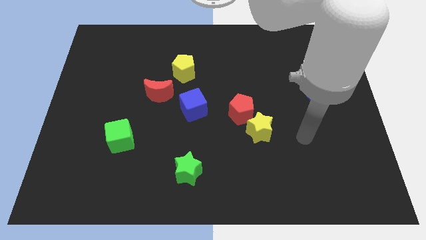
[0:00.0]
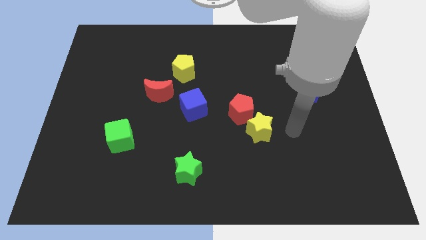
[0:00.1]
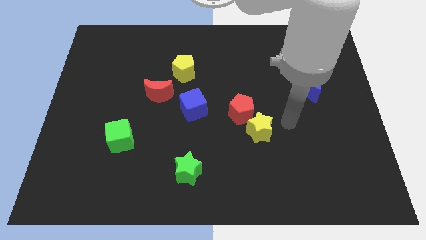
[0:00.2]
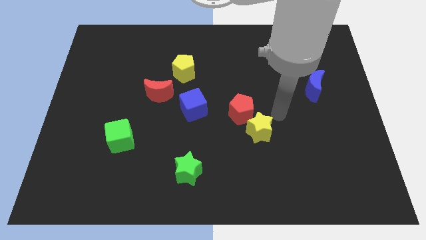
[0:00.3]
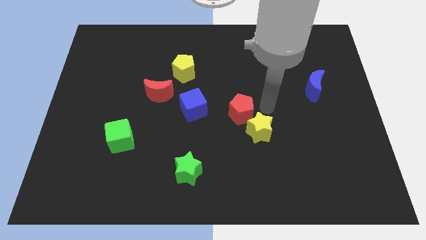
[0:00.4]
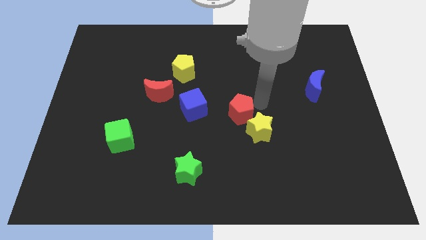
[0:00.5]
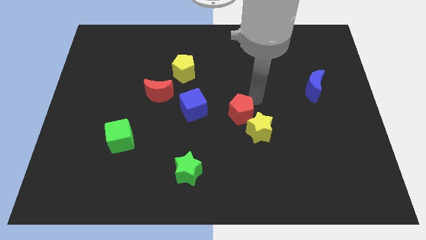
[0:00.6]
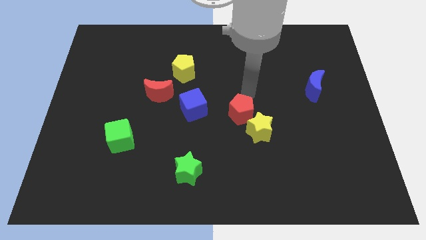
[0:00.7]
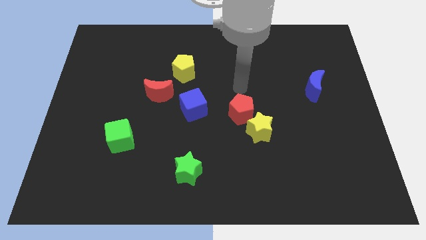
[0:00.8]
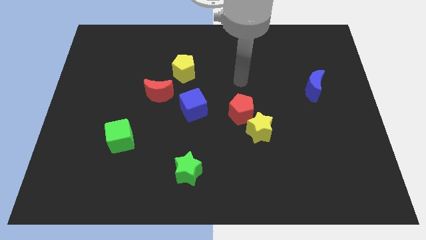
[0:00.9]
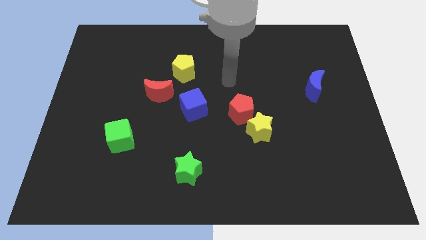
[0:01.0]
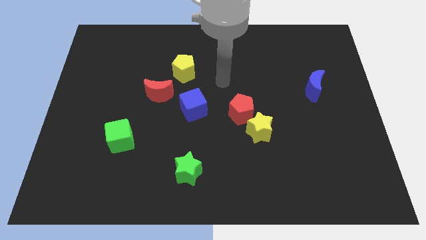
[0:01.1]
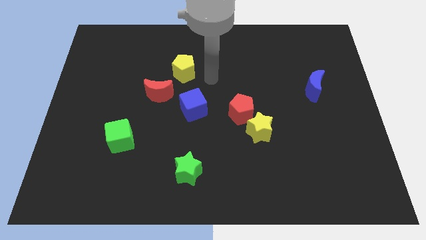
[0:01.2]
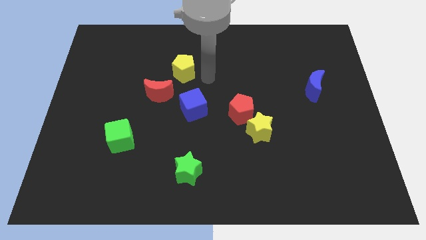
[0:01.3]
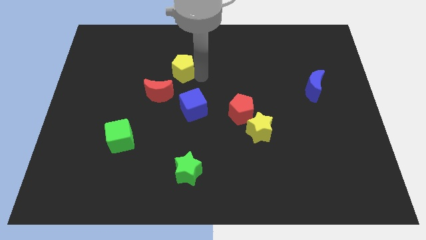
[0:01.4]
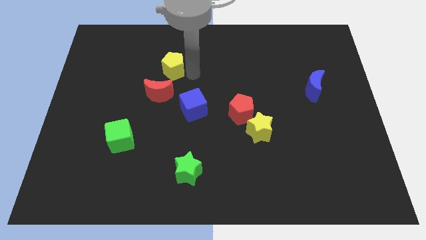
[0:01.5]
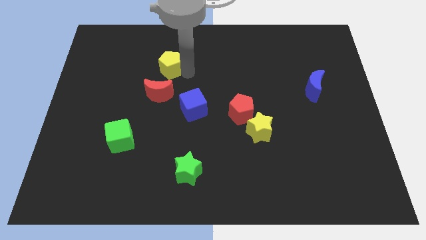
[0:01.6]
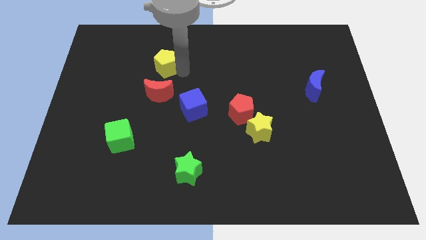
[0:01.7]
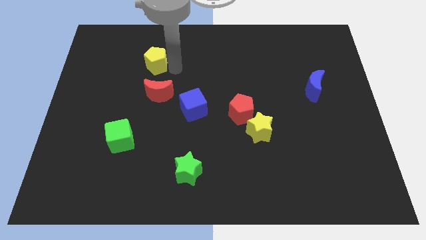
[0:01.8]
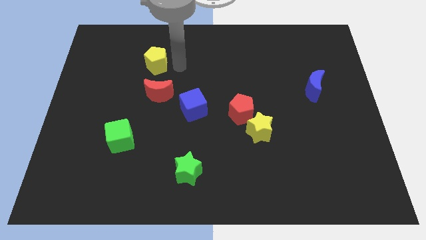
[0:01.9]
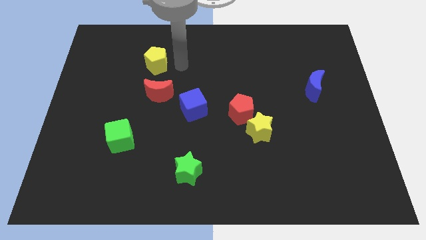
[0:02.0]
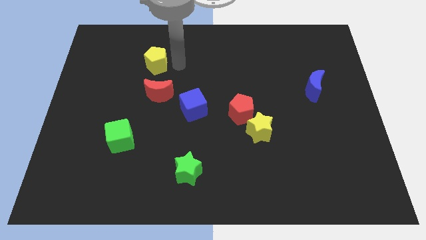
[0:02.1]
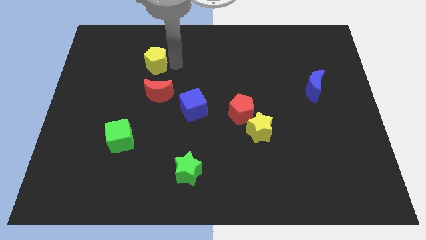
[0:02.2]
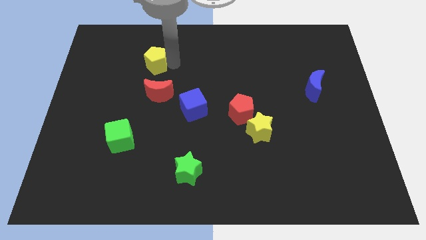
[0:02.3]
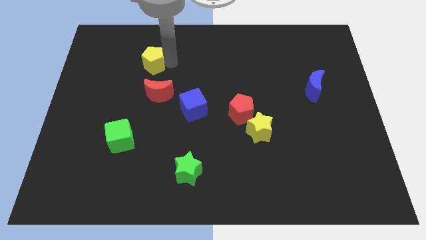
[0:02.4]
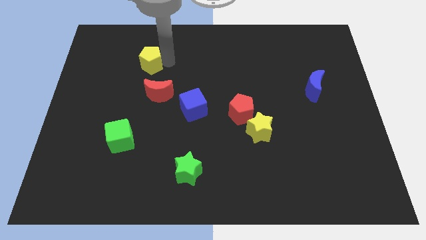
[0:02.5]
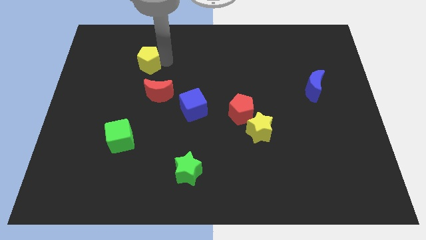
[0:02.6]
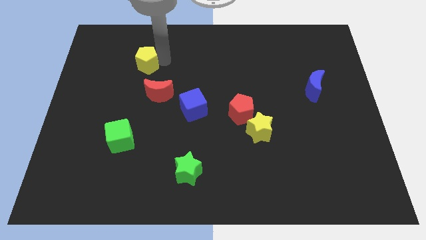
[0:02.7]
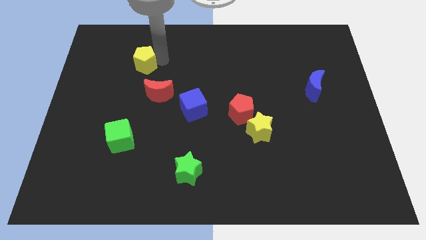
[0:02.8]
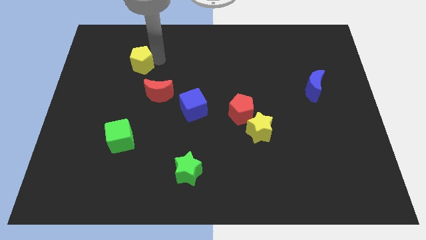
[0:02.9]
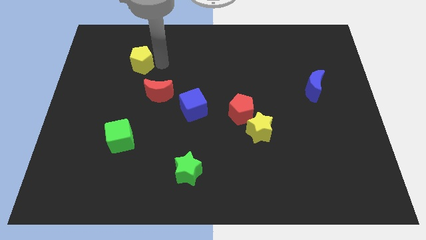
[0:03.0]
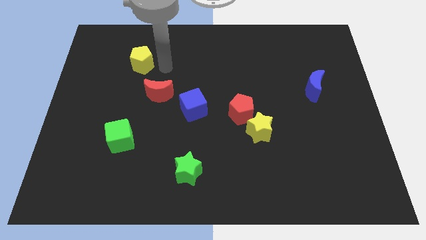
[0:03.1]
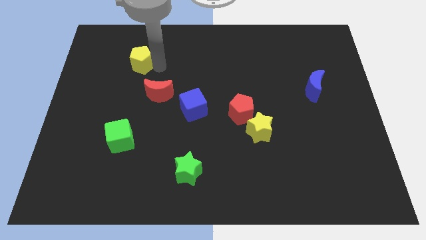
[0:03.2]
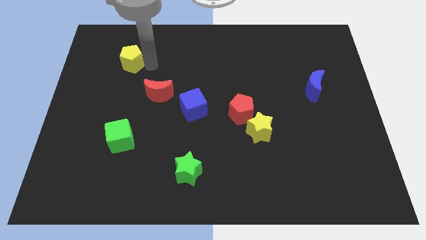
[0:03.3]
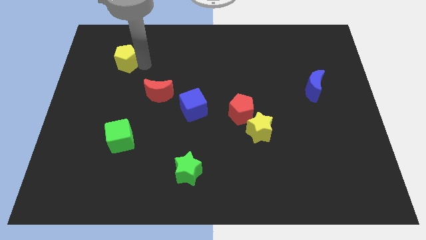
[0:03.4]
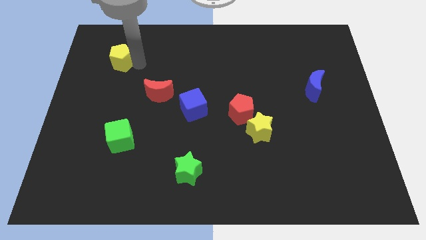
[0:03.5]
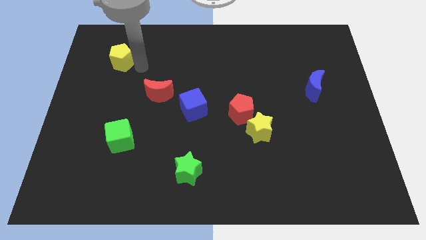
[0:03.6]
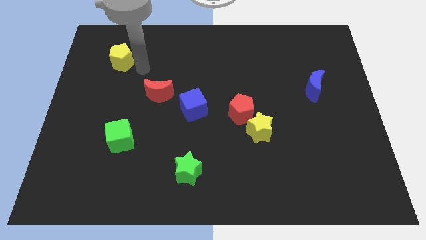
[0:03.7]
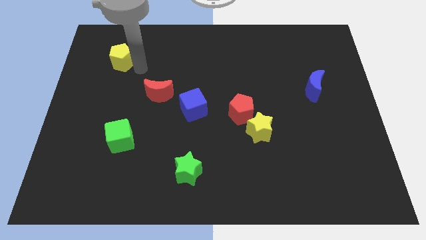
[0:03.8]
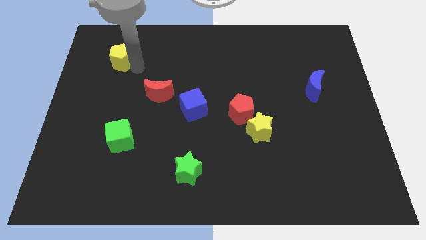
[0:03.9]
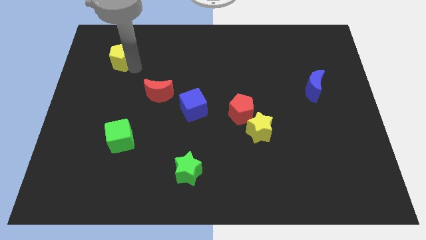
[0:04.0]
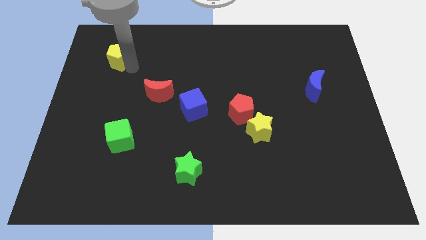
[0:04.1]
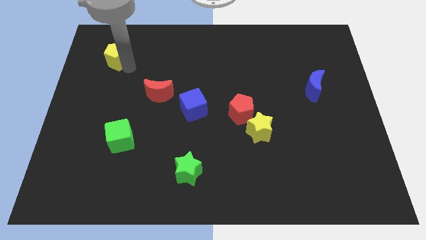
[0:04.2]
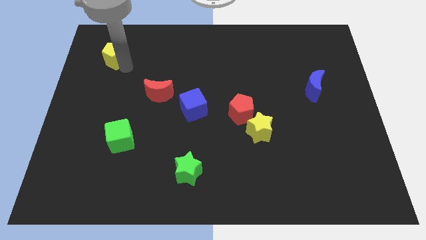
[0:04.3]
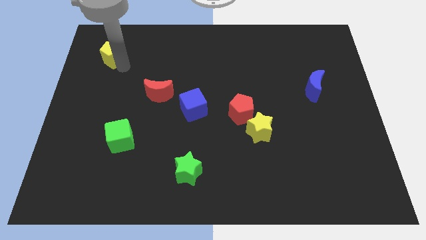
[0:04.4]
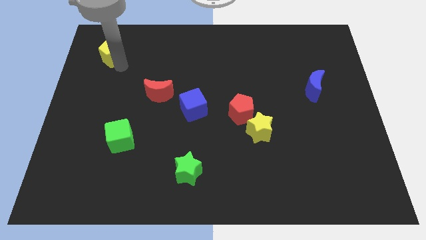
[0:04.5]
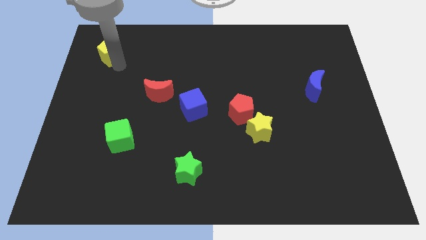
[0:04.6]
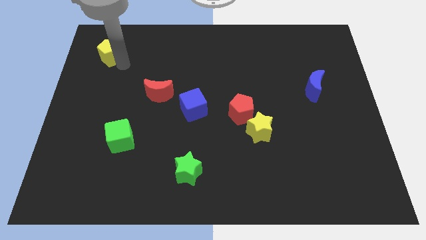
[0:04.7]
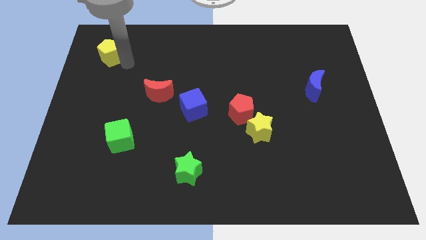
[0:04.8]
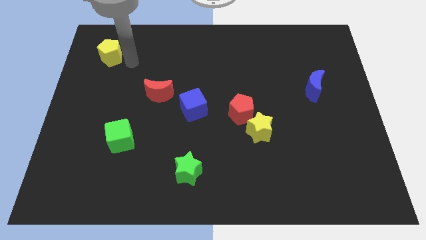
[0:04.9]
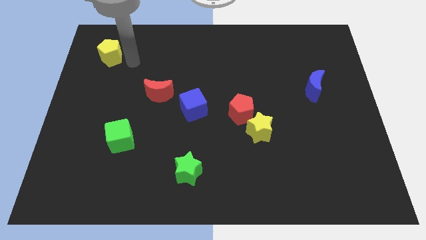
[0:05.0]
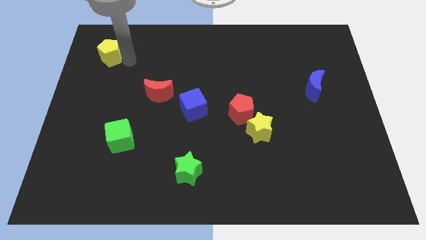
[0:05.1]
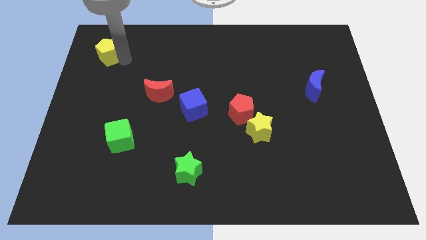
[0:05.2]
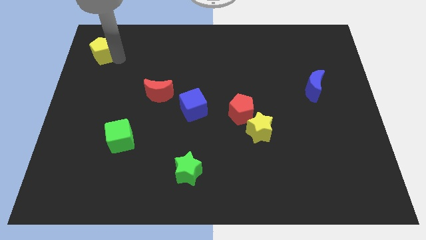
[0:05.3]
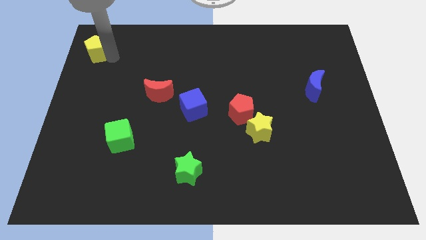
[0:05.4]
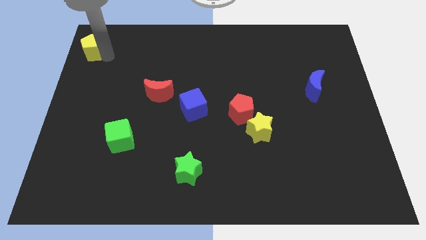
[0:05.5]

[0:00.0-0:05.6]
push the yellow pentagon to the top left corner

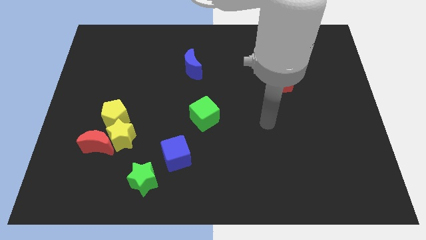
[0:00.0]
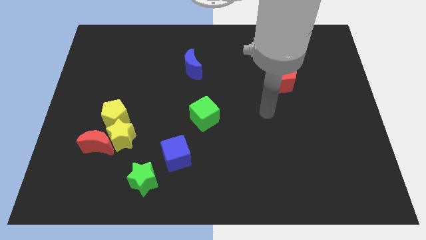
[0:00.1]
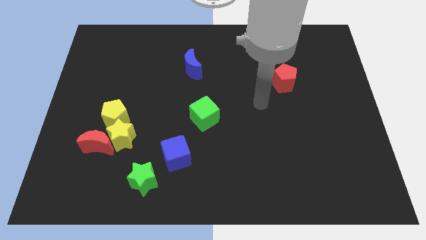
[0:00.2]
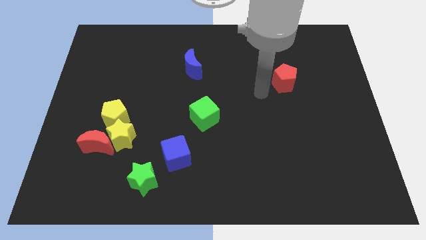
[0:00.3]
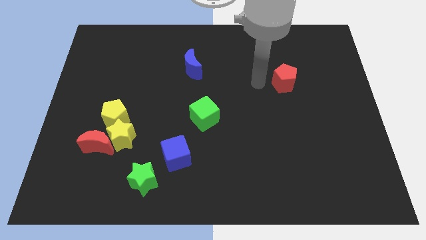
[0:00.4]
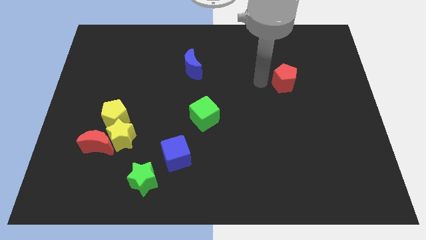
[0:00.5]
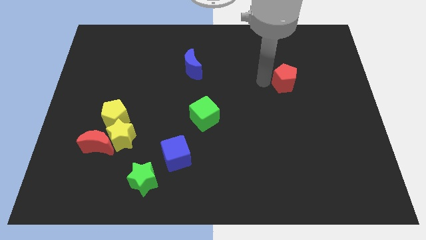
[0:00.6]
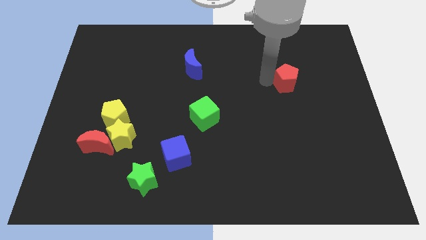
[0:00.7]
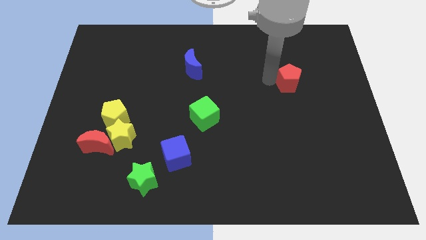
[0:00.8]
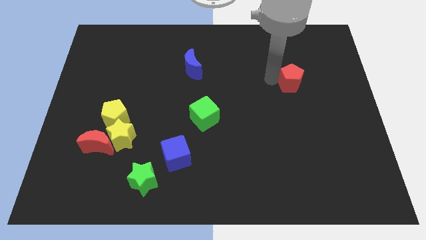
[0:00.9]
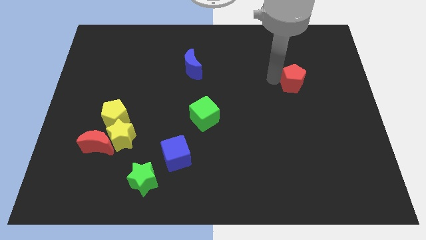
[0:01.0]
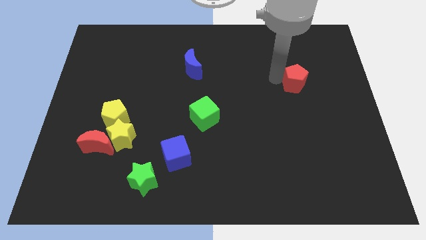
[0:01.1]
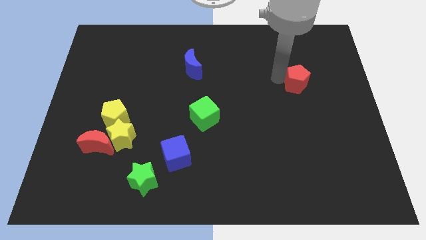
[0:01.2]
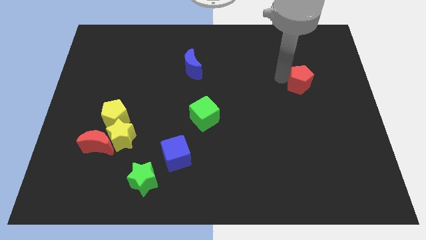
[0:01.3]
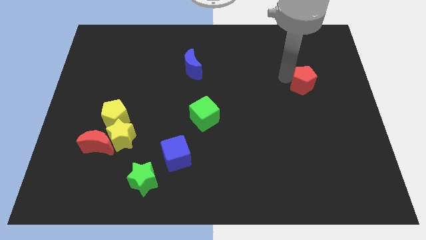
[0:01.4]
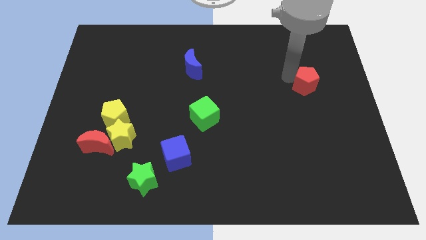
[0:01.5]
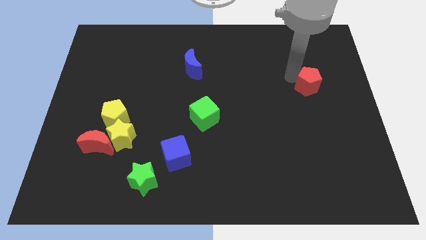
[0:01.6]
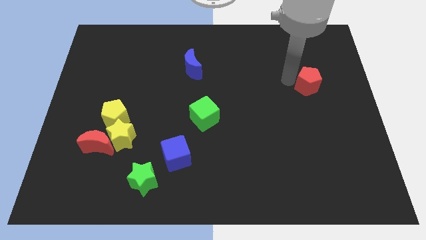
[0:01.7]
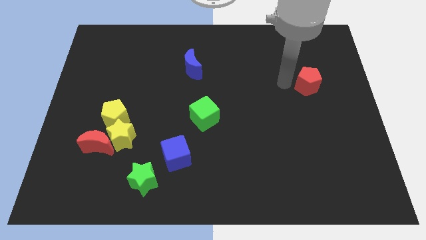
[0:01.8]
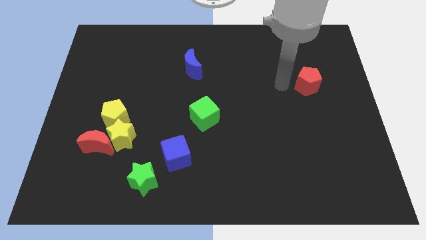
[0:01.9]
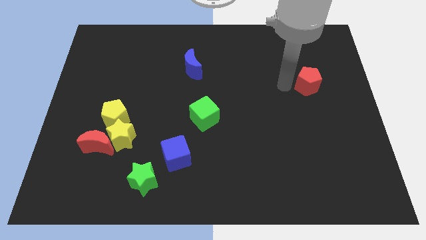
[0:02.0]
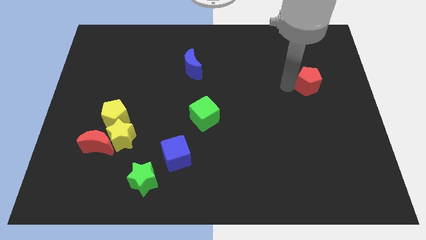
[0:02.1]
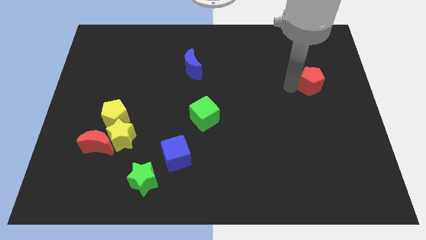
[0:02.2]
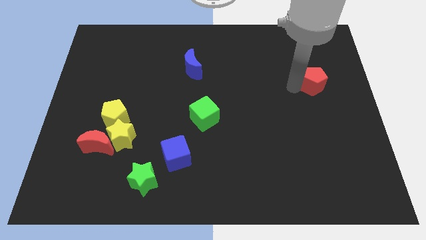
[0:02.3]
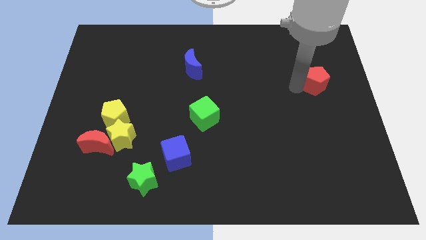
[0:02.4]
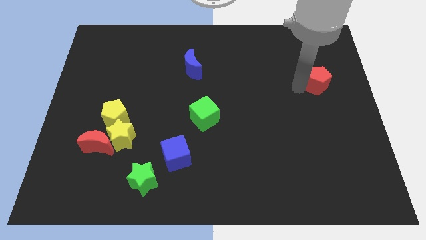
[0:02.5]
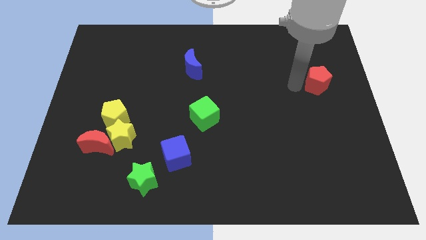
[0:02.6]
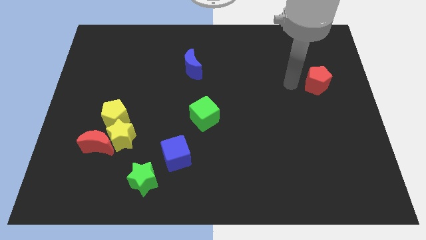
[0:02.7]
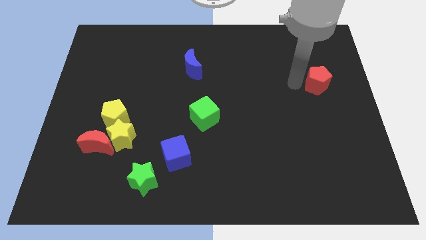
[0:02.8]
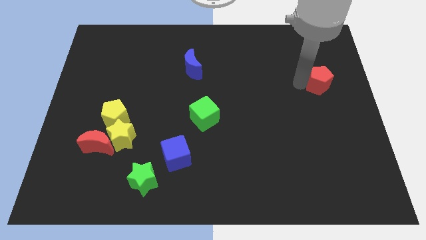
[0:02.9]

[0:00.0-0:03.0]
push the red pentagon to the right side of the board
